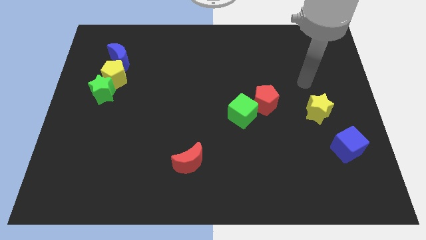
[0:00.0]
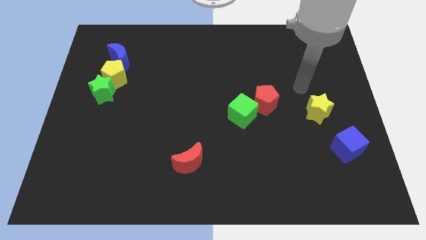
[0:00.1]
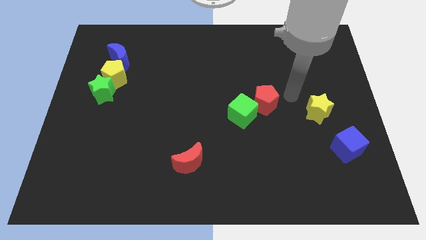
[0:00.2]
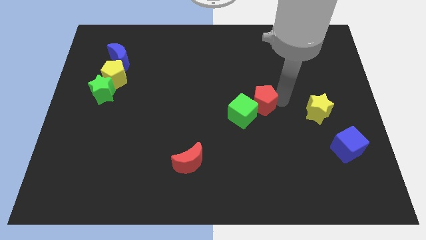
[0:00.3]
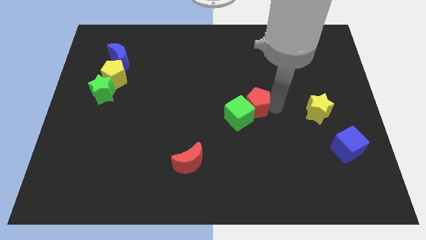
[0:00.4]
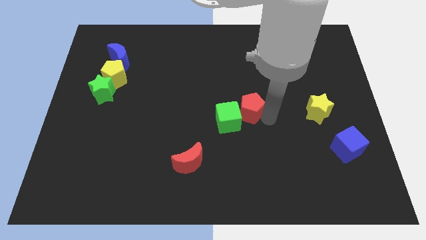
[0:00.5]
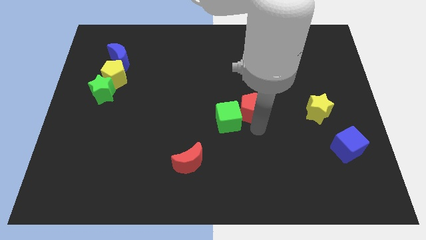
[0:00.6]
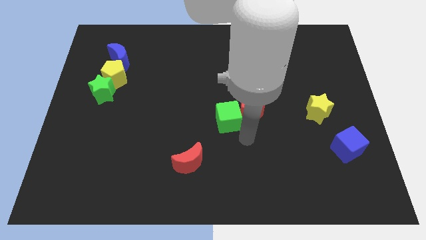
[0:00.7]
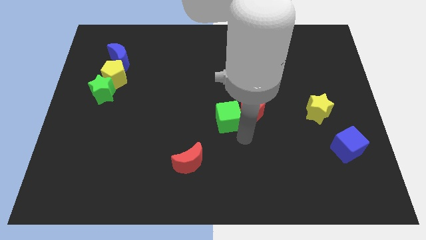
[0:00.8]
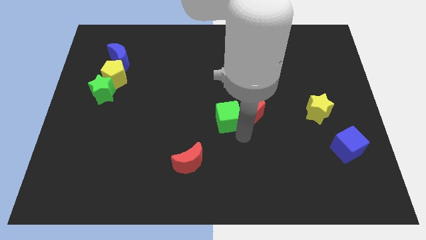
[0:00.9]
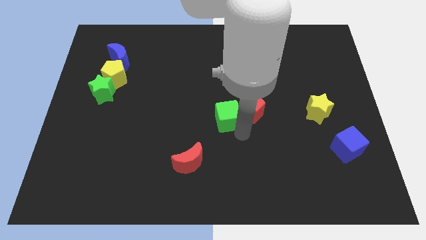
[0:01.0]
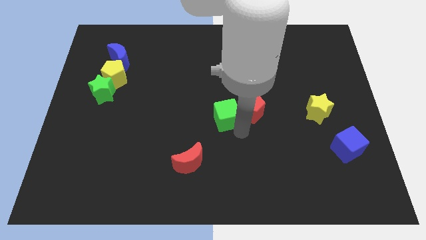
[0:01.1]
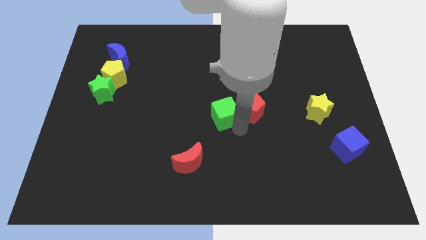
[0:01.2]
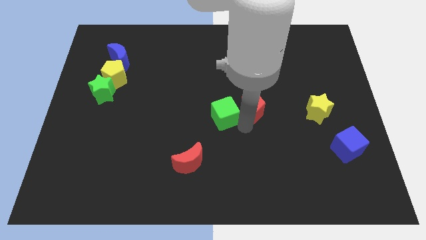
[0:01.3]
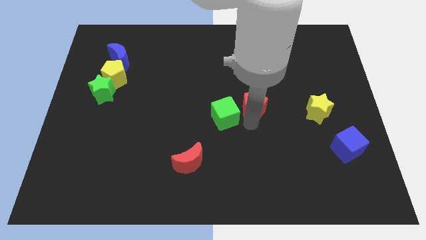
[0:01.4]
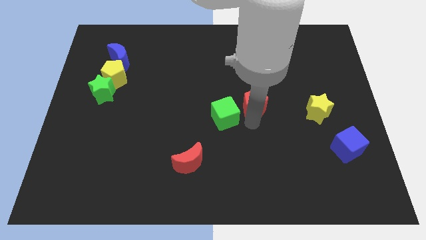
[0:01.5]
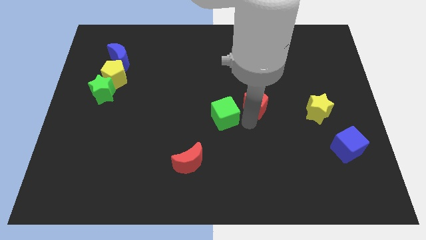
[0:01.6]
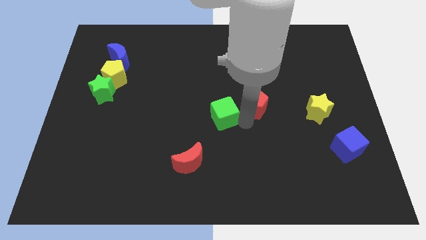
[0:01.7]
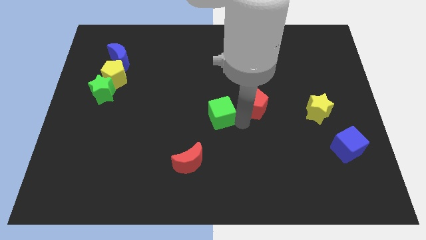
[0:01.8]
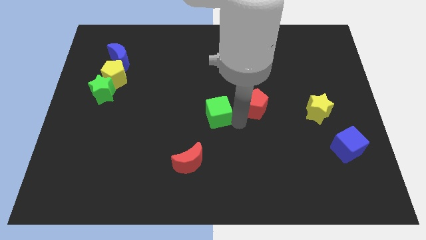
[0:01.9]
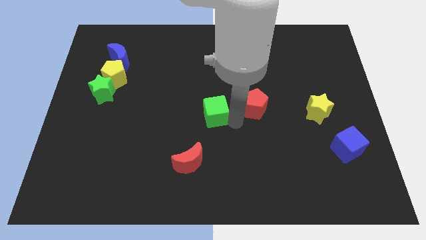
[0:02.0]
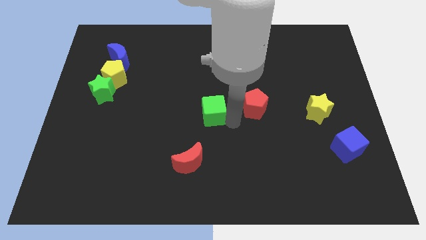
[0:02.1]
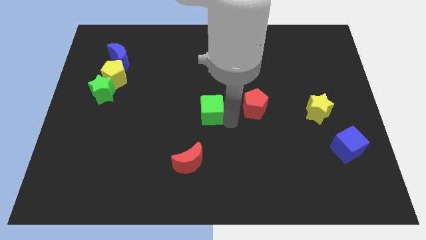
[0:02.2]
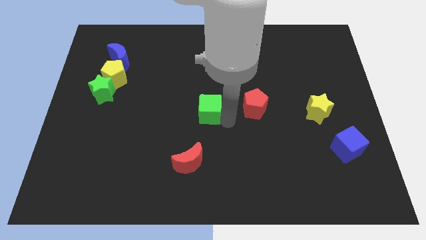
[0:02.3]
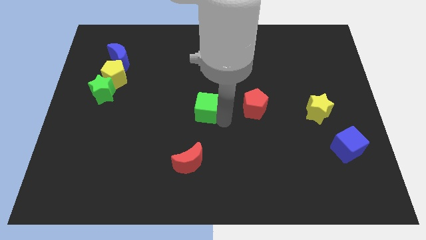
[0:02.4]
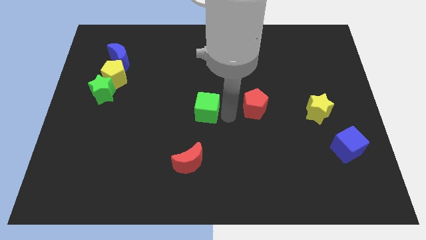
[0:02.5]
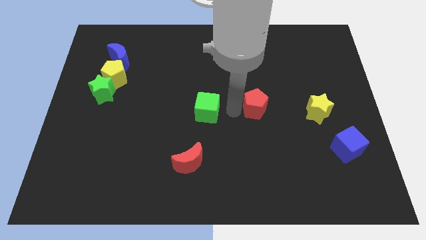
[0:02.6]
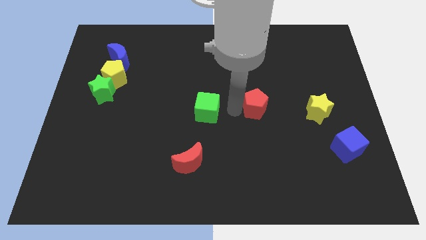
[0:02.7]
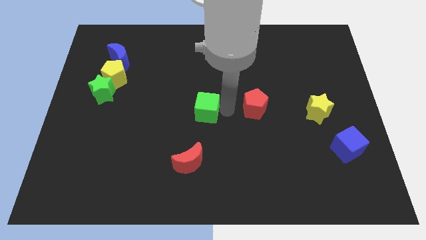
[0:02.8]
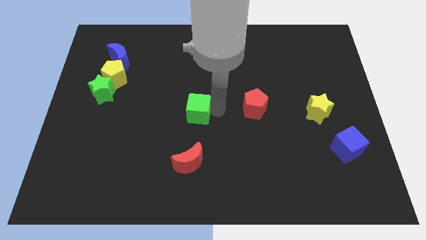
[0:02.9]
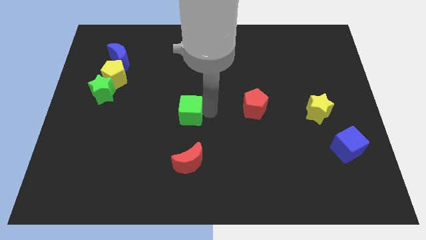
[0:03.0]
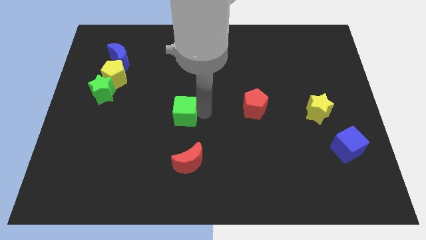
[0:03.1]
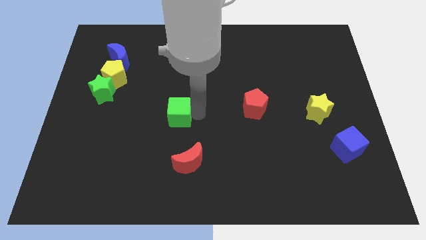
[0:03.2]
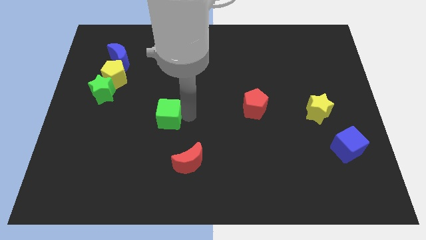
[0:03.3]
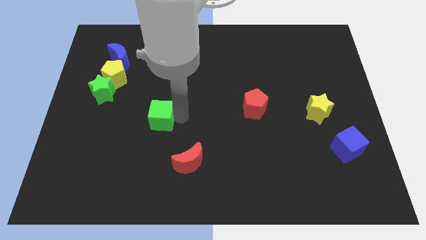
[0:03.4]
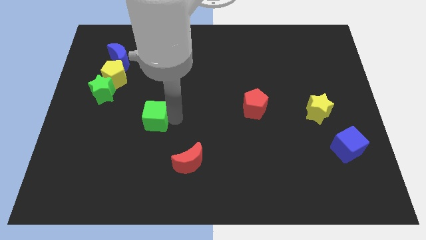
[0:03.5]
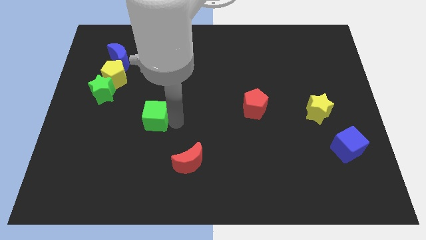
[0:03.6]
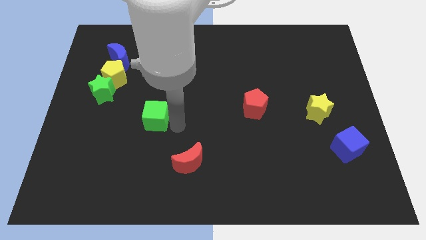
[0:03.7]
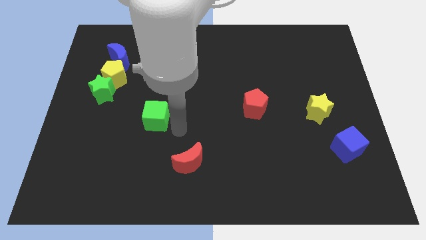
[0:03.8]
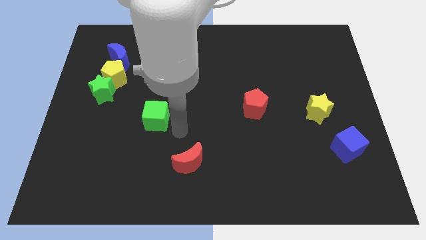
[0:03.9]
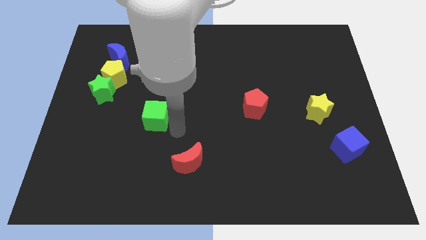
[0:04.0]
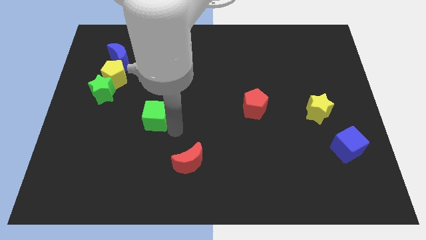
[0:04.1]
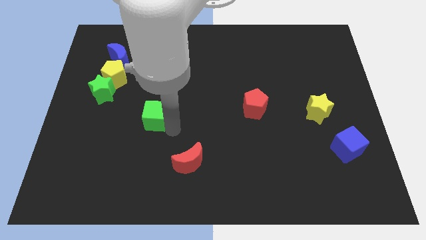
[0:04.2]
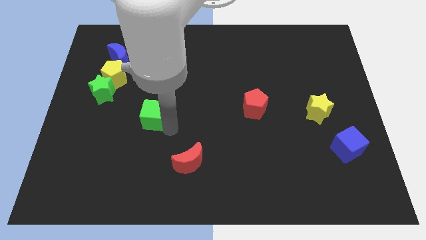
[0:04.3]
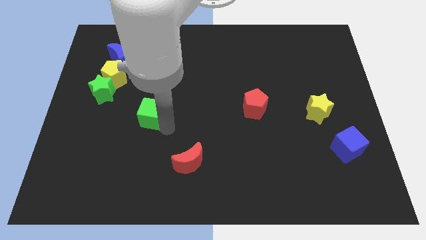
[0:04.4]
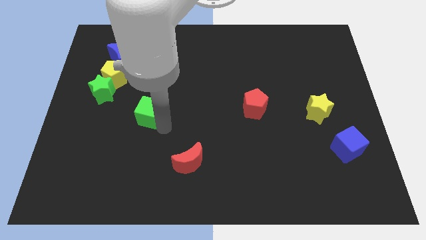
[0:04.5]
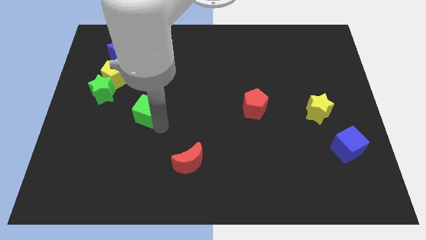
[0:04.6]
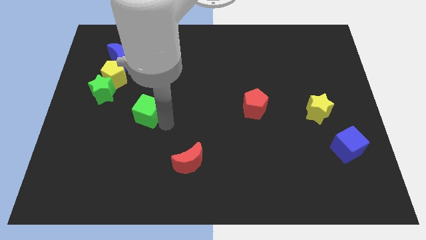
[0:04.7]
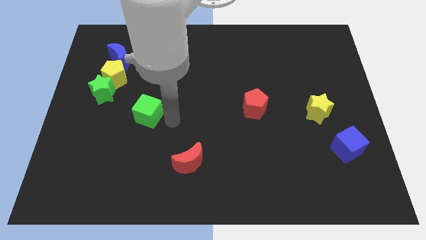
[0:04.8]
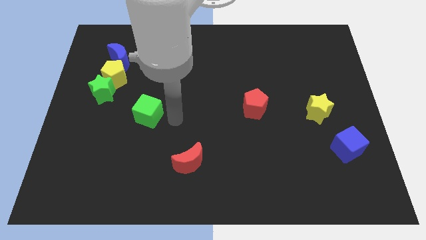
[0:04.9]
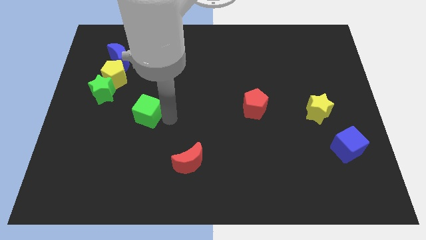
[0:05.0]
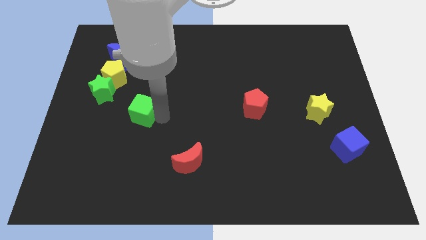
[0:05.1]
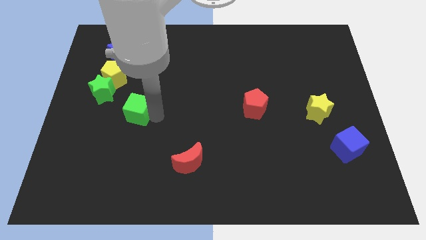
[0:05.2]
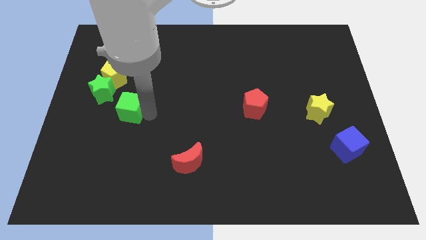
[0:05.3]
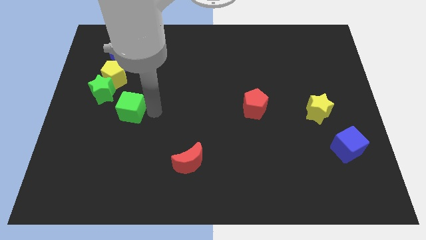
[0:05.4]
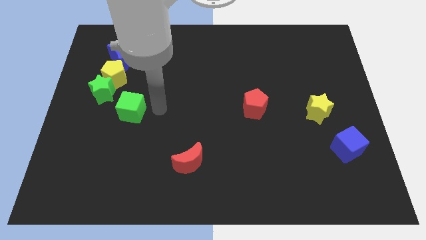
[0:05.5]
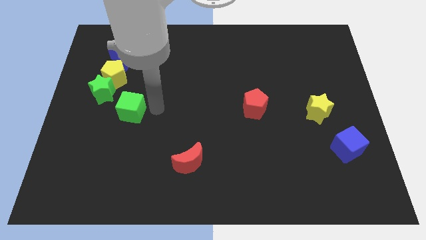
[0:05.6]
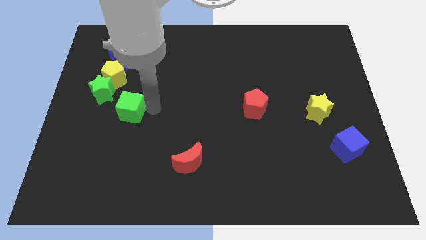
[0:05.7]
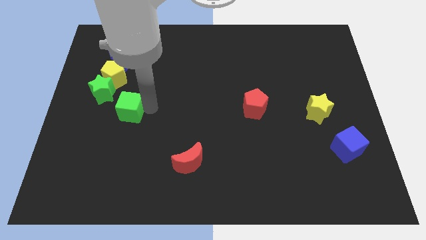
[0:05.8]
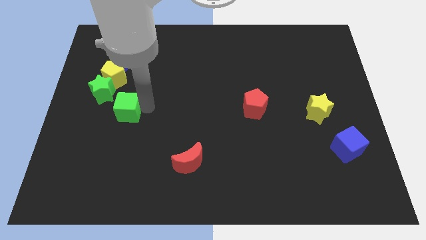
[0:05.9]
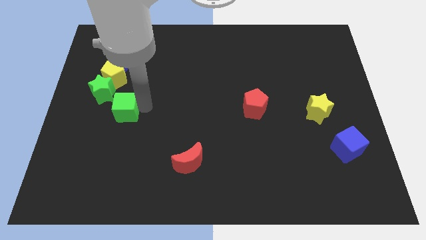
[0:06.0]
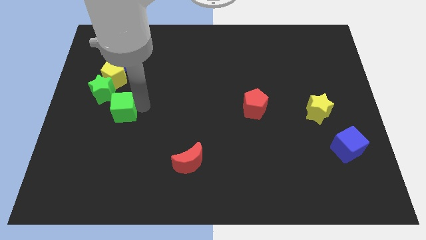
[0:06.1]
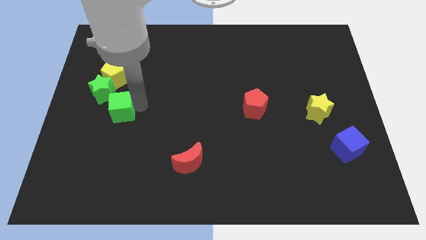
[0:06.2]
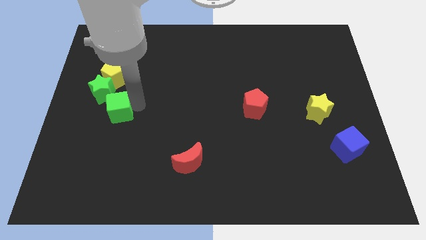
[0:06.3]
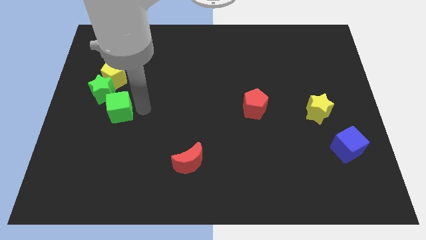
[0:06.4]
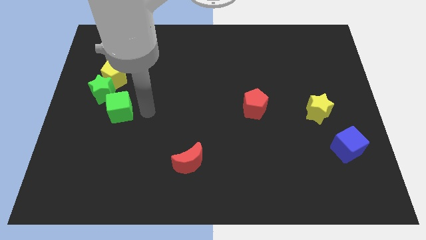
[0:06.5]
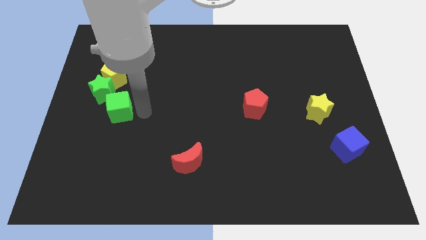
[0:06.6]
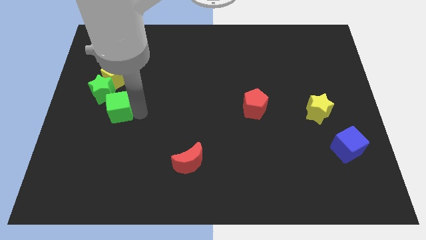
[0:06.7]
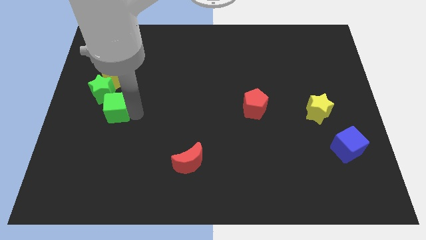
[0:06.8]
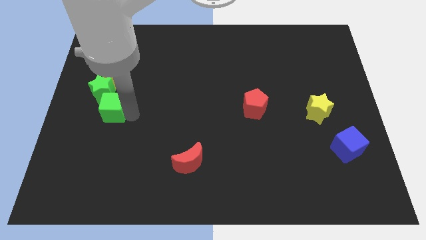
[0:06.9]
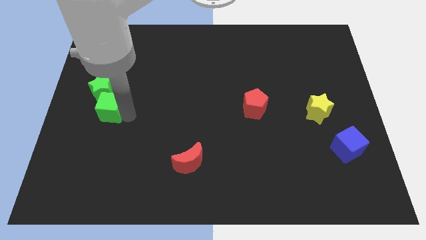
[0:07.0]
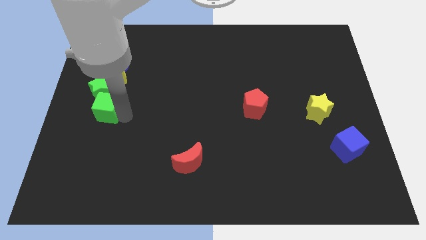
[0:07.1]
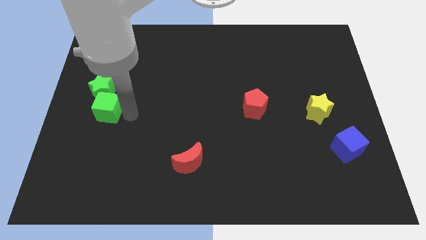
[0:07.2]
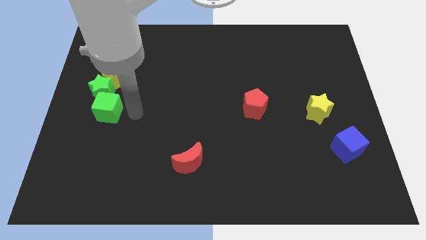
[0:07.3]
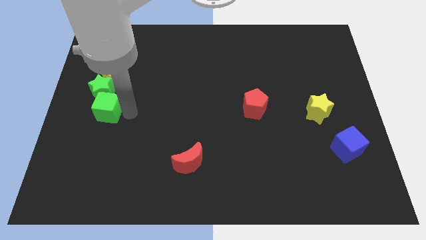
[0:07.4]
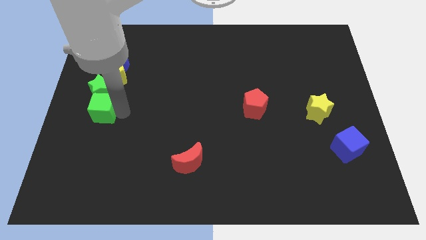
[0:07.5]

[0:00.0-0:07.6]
push the green cube to the left side of the board
